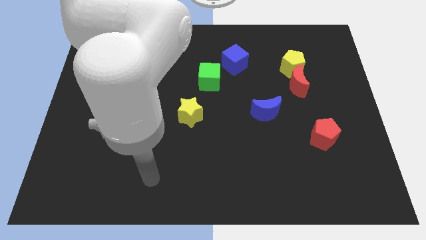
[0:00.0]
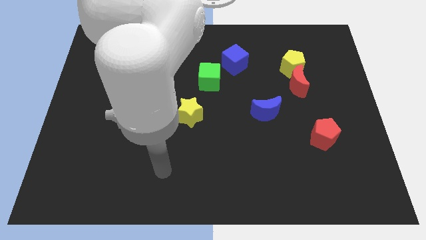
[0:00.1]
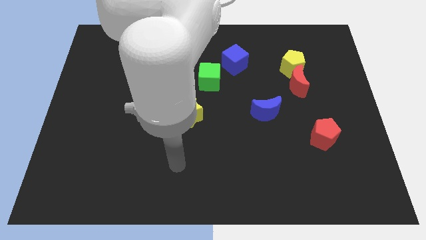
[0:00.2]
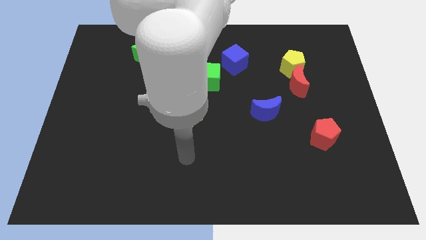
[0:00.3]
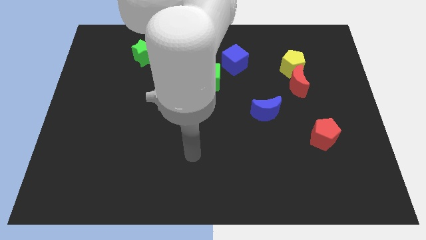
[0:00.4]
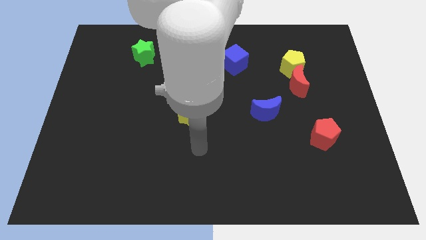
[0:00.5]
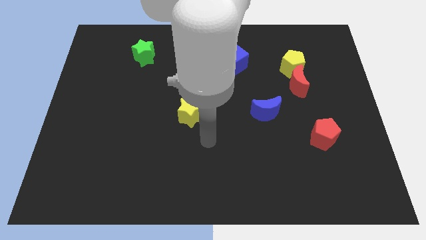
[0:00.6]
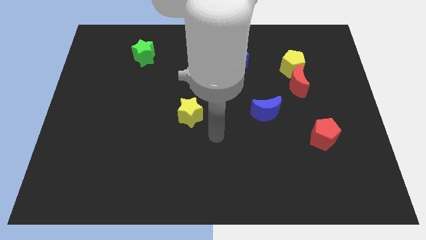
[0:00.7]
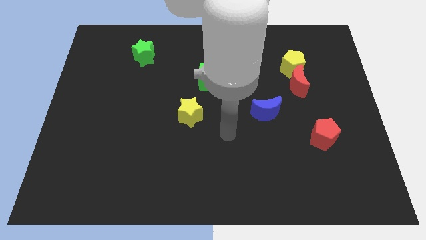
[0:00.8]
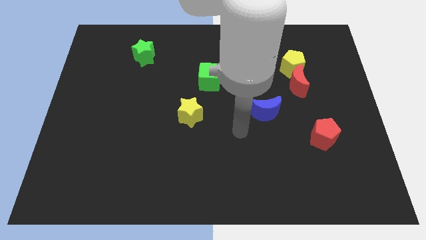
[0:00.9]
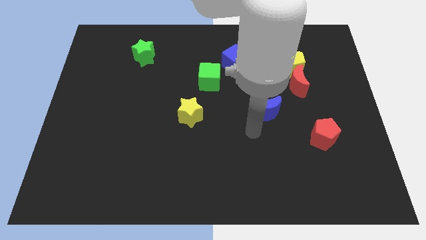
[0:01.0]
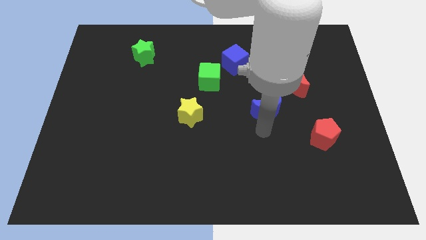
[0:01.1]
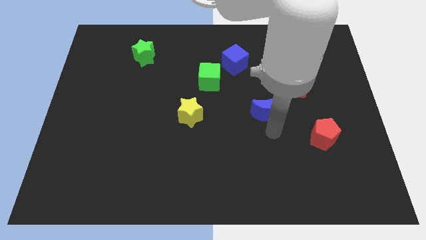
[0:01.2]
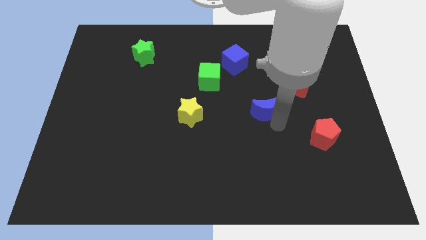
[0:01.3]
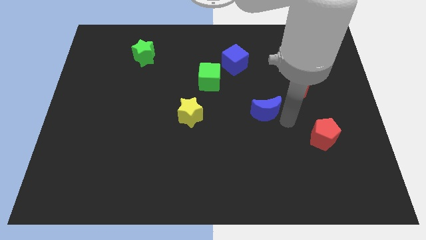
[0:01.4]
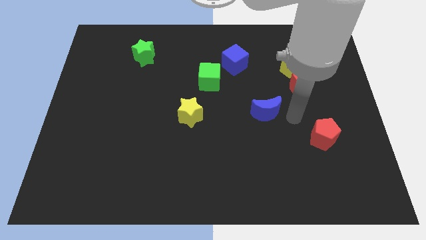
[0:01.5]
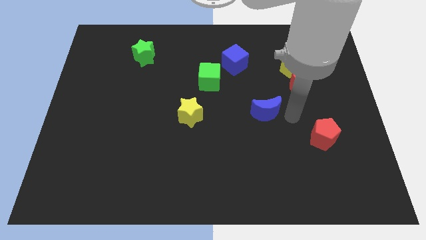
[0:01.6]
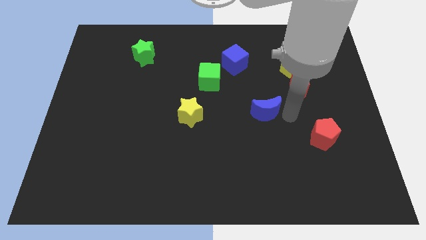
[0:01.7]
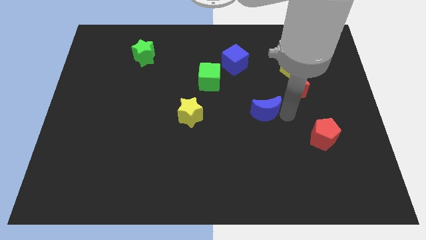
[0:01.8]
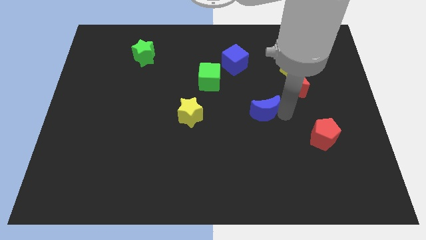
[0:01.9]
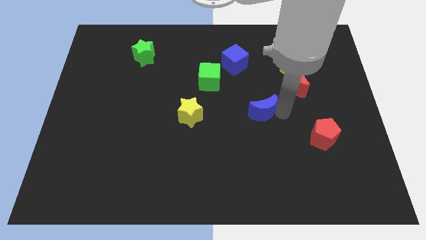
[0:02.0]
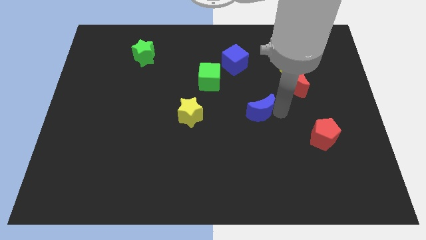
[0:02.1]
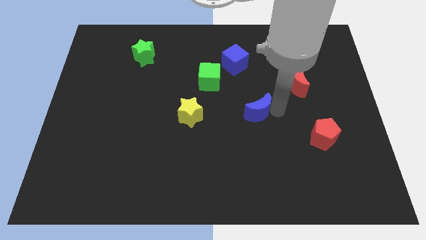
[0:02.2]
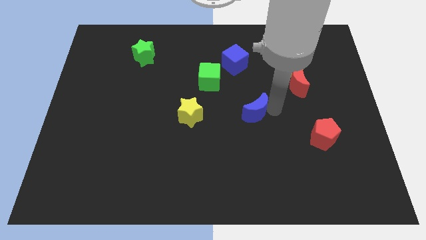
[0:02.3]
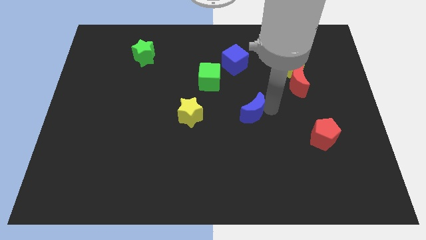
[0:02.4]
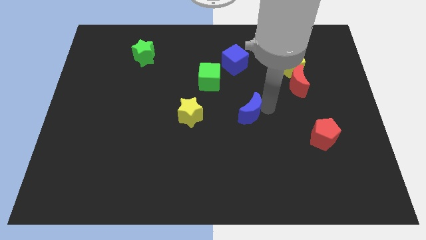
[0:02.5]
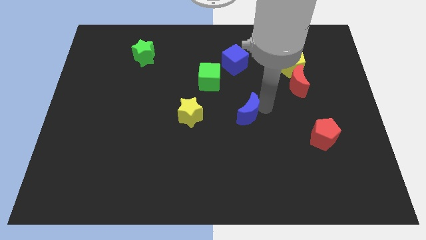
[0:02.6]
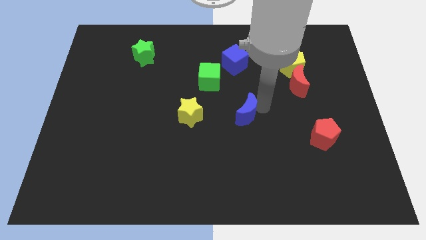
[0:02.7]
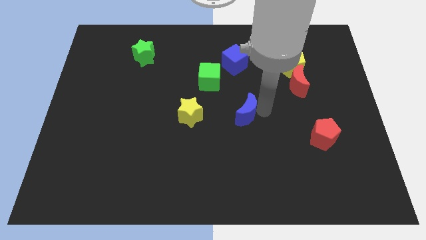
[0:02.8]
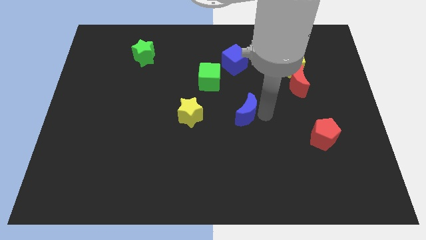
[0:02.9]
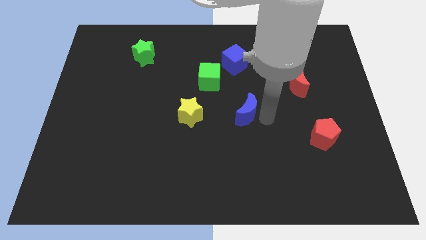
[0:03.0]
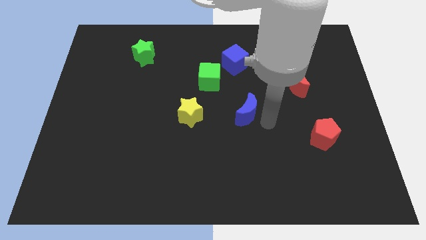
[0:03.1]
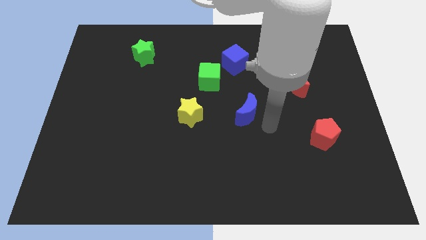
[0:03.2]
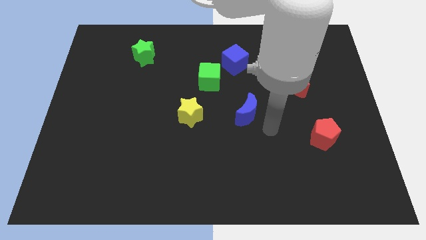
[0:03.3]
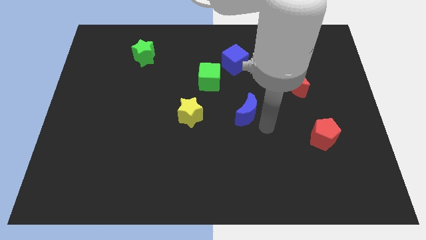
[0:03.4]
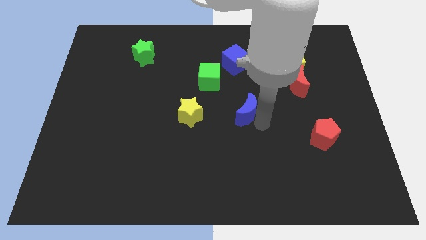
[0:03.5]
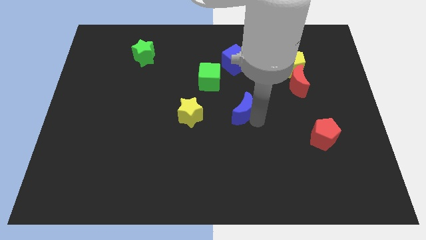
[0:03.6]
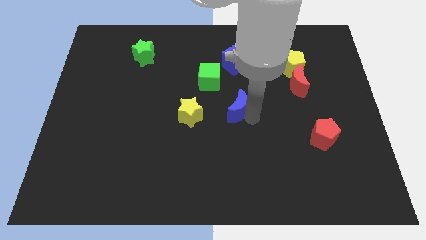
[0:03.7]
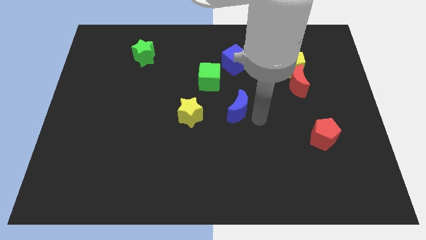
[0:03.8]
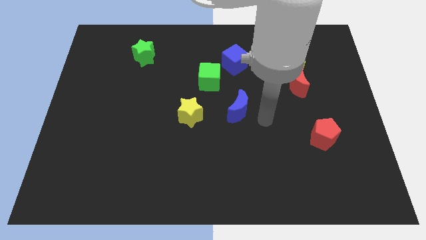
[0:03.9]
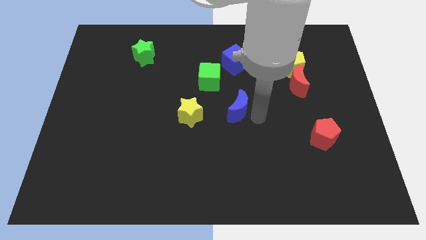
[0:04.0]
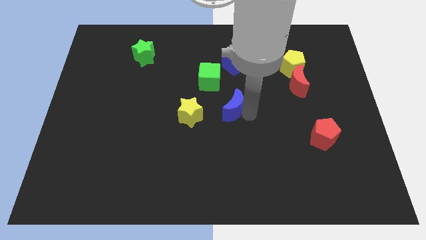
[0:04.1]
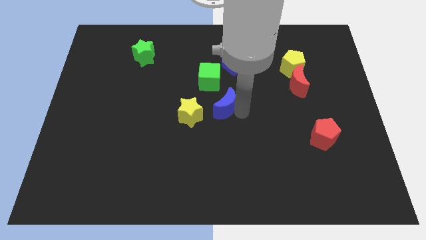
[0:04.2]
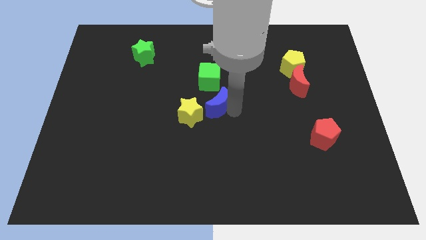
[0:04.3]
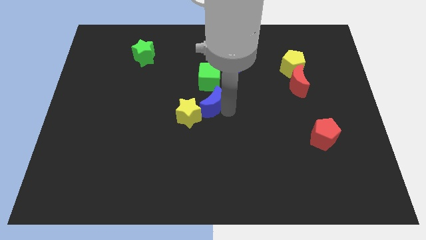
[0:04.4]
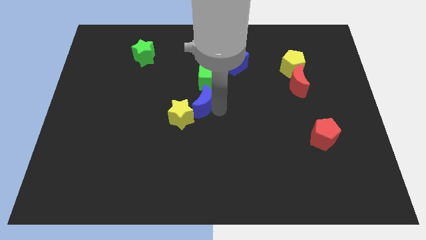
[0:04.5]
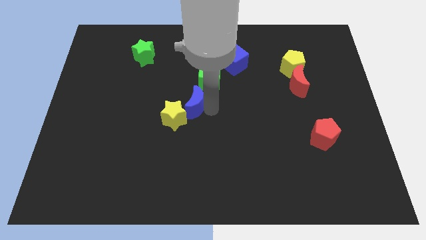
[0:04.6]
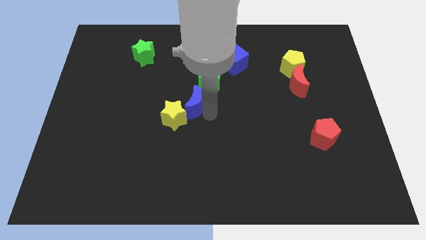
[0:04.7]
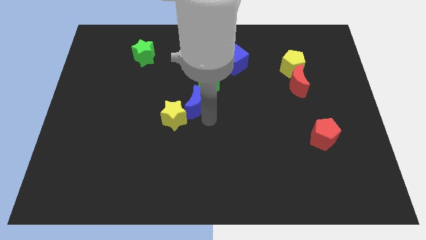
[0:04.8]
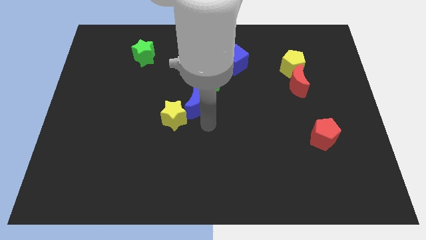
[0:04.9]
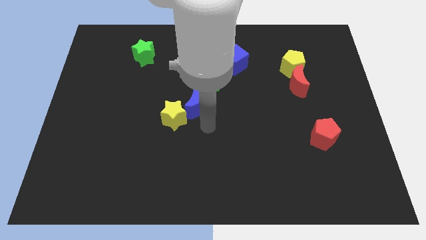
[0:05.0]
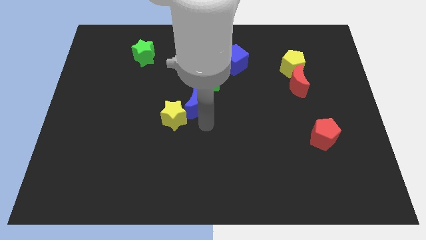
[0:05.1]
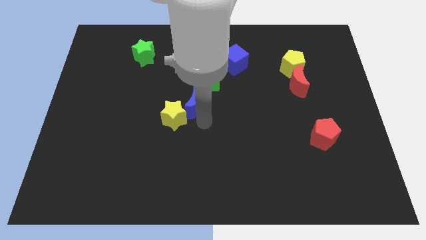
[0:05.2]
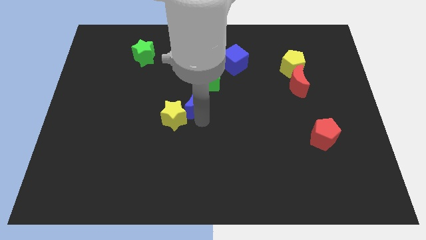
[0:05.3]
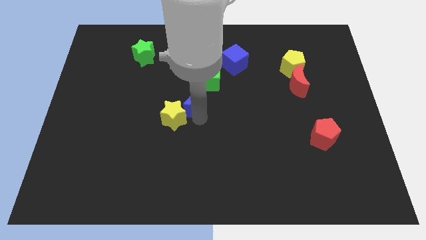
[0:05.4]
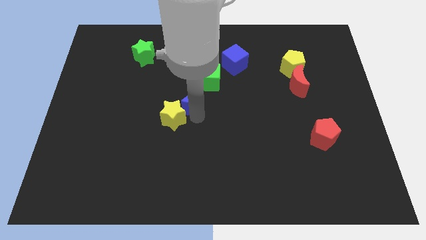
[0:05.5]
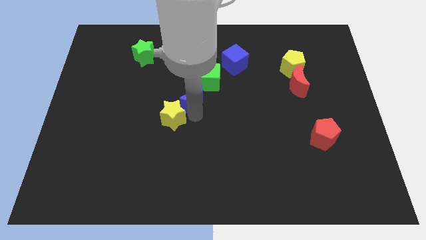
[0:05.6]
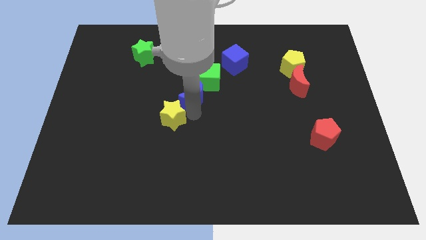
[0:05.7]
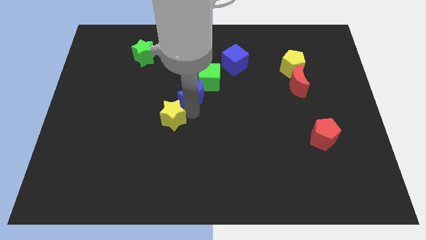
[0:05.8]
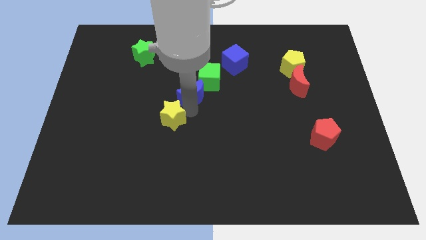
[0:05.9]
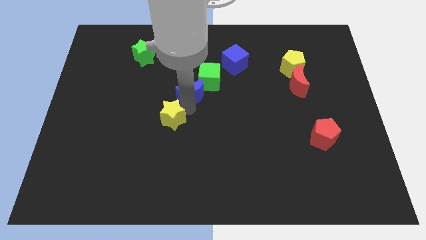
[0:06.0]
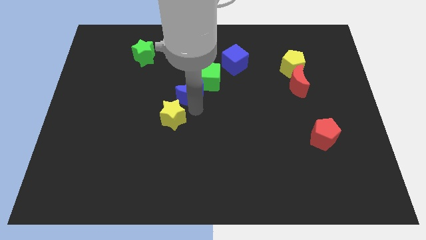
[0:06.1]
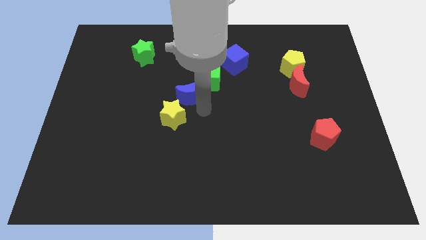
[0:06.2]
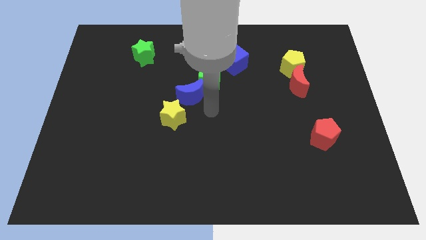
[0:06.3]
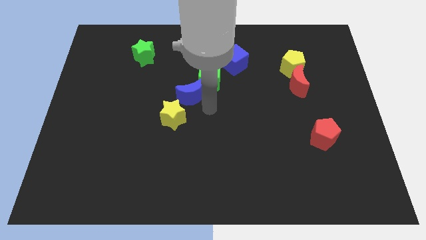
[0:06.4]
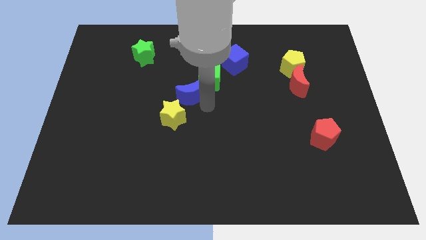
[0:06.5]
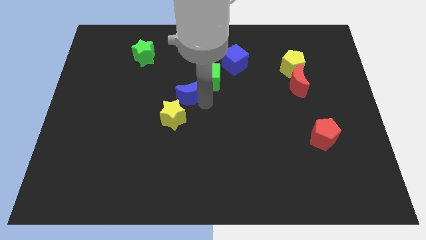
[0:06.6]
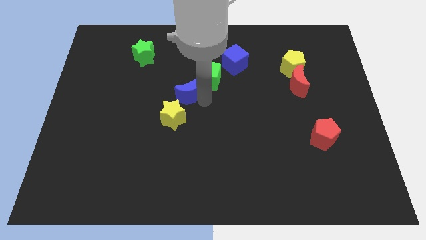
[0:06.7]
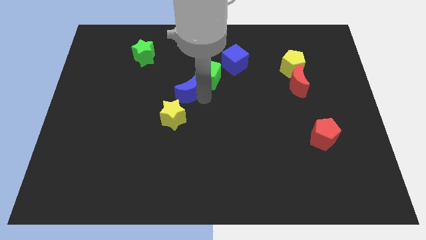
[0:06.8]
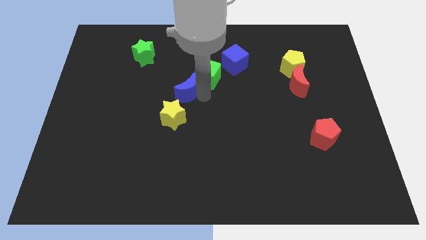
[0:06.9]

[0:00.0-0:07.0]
put the blue moon left of the green cube

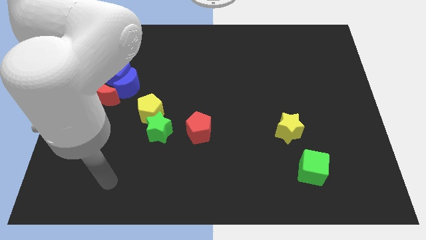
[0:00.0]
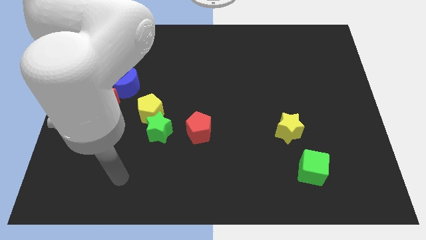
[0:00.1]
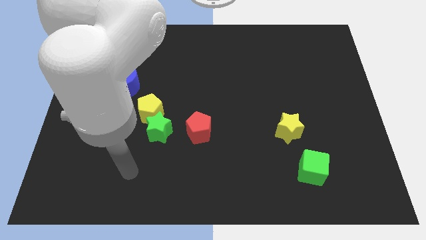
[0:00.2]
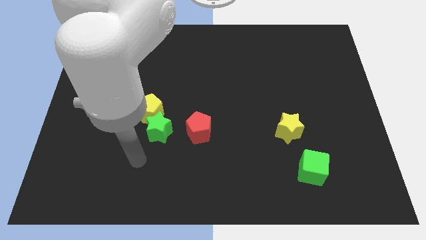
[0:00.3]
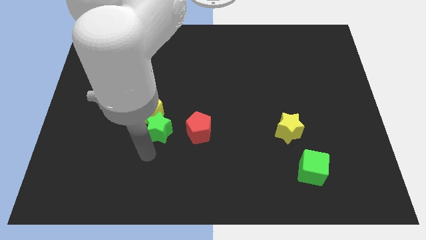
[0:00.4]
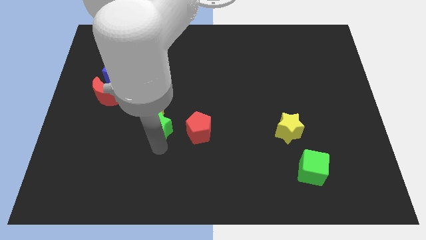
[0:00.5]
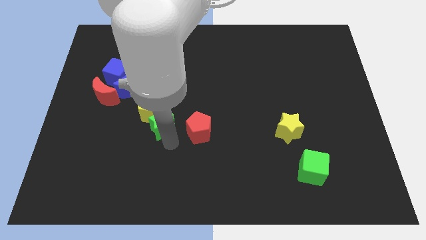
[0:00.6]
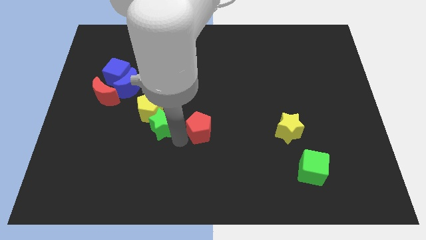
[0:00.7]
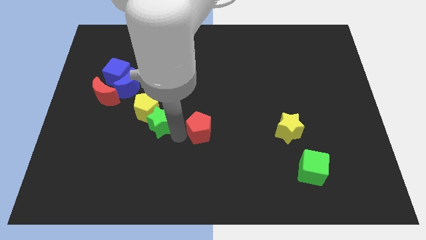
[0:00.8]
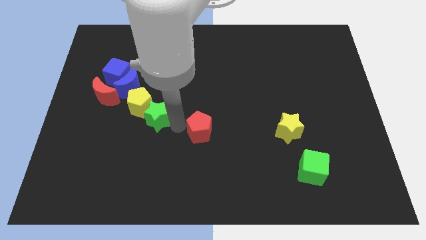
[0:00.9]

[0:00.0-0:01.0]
move the yellow pentagon below the blue moon
